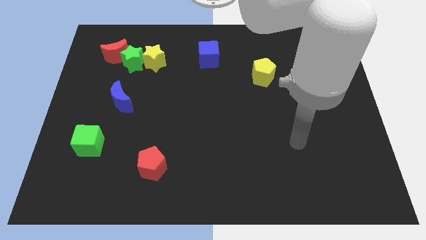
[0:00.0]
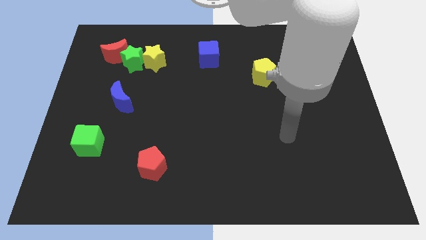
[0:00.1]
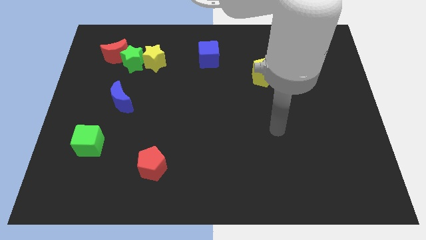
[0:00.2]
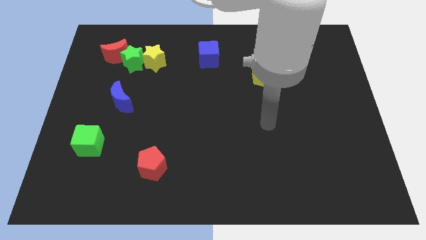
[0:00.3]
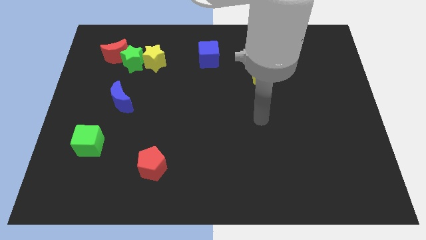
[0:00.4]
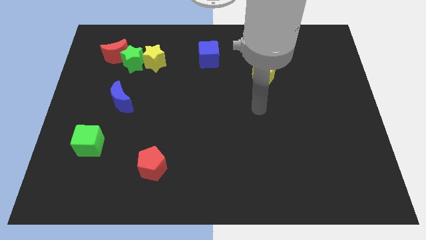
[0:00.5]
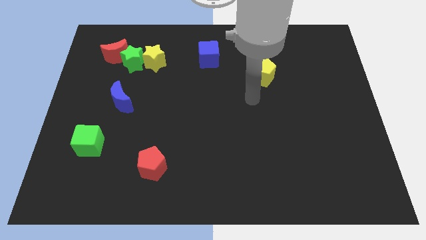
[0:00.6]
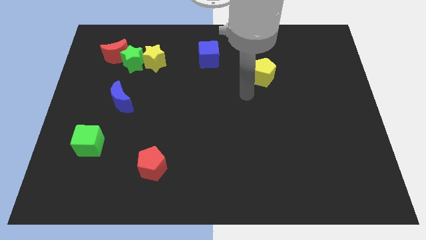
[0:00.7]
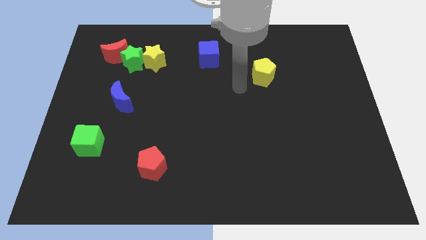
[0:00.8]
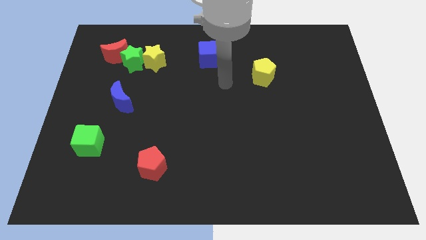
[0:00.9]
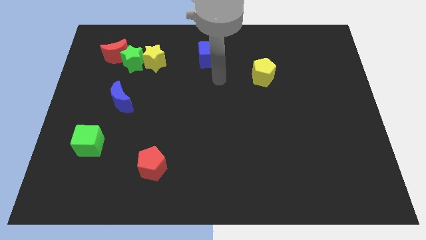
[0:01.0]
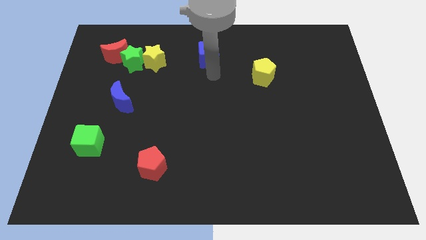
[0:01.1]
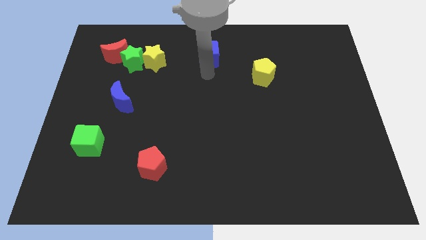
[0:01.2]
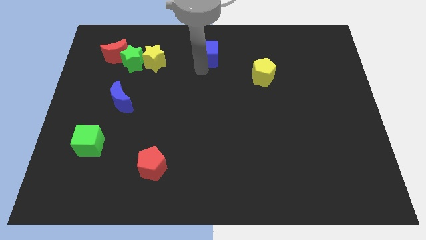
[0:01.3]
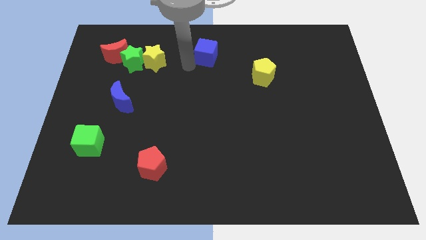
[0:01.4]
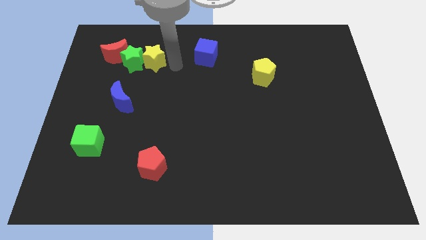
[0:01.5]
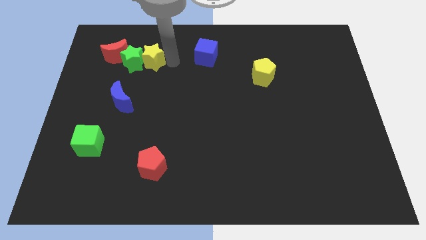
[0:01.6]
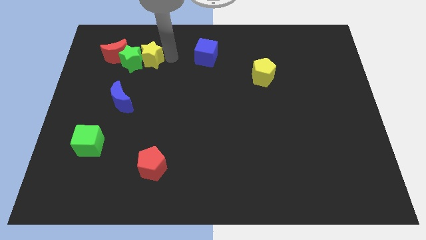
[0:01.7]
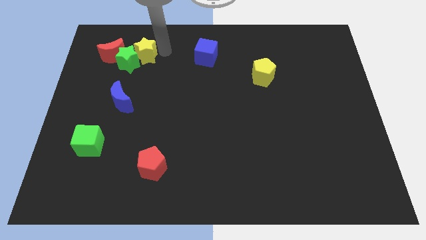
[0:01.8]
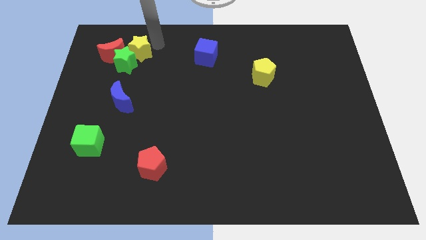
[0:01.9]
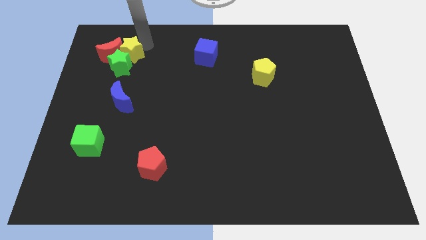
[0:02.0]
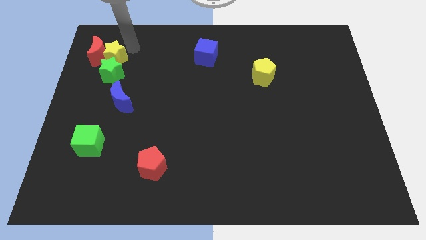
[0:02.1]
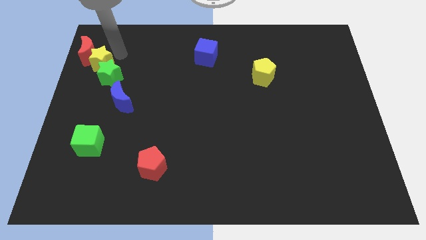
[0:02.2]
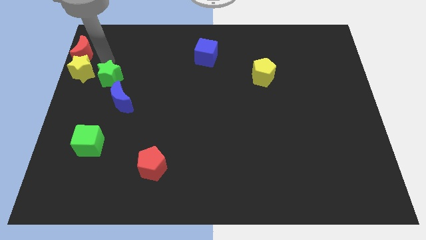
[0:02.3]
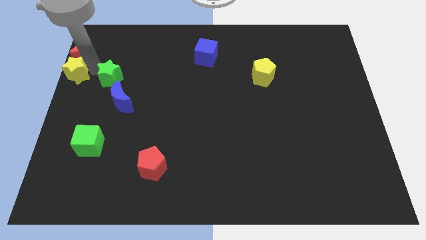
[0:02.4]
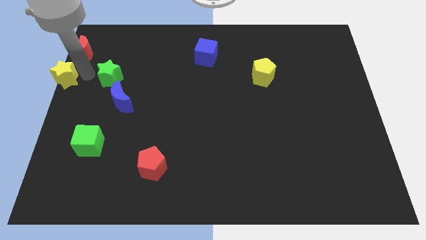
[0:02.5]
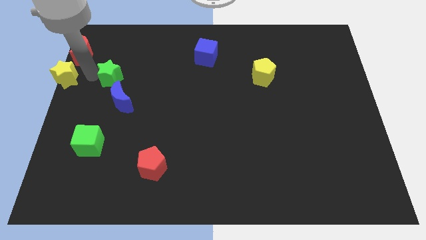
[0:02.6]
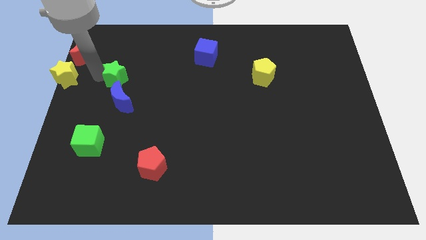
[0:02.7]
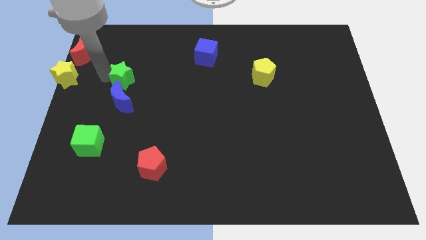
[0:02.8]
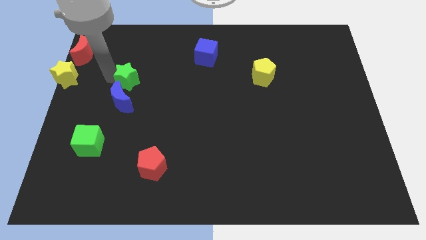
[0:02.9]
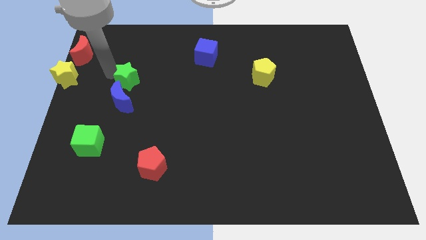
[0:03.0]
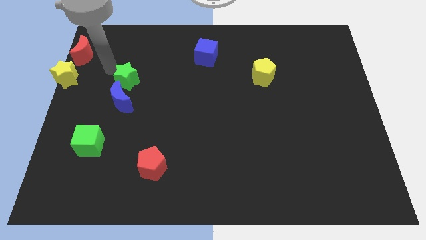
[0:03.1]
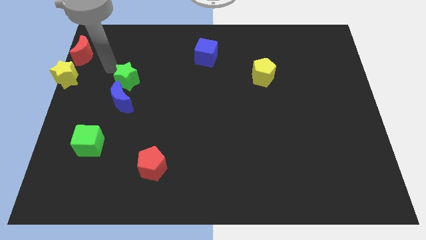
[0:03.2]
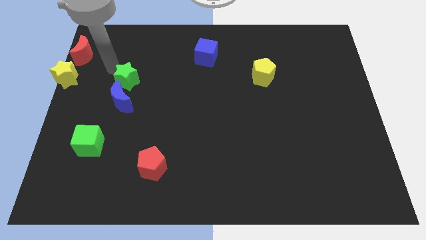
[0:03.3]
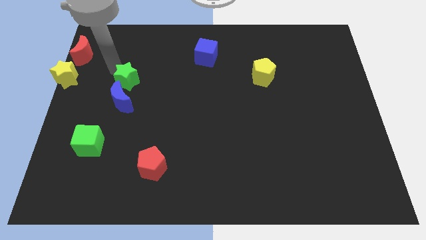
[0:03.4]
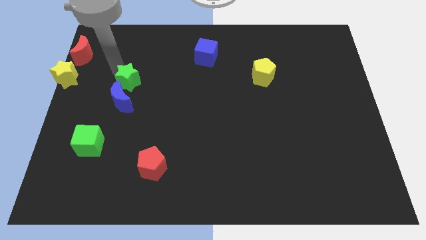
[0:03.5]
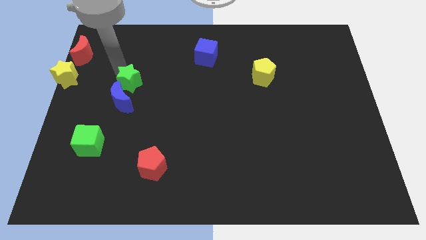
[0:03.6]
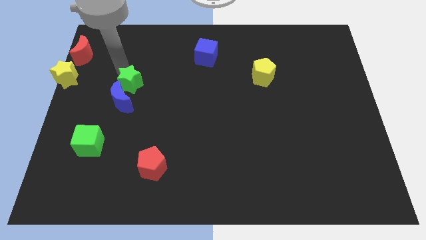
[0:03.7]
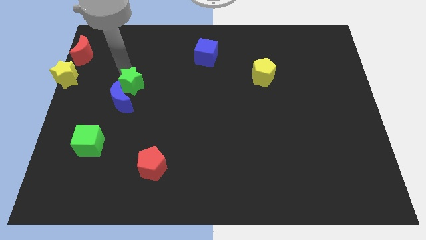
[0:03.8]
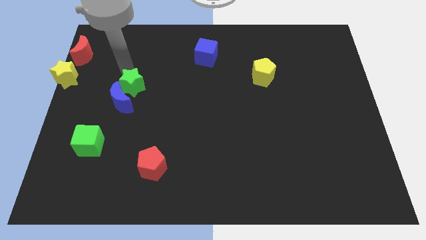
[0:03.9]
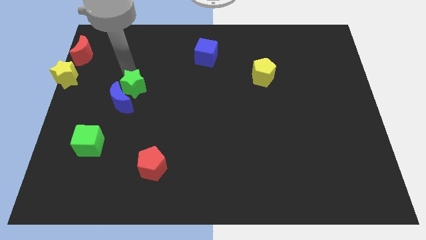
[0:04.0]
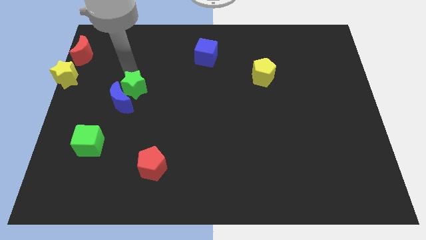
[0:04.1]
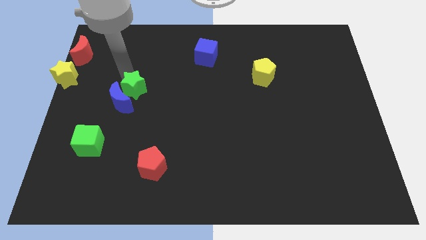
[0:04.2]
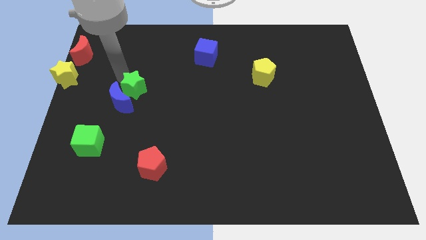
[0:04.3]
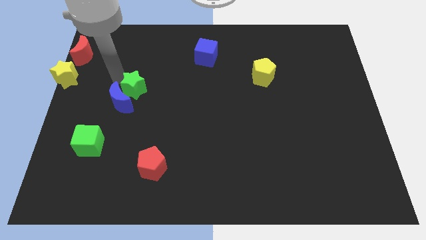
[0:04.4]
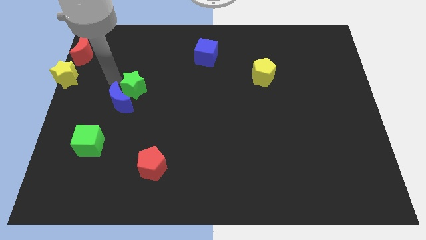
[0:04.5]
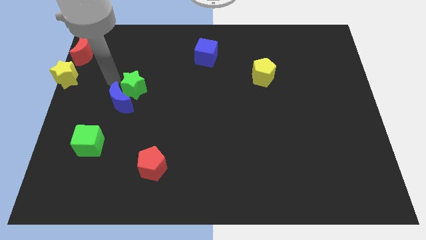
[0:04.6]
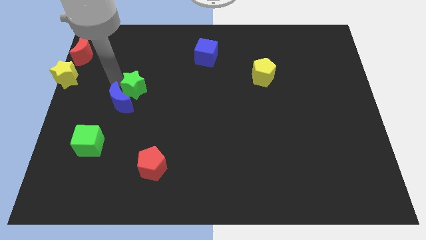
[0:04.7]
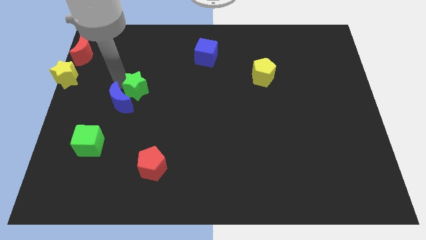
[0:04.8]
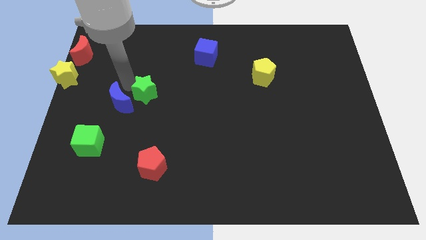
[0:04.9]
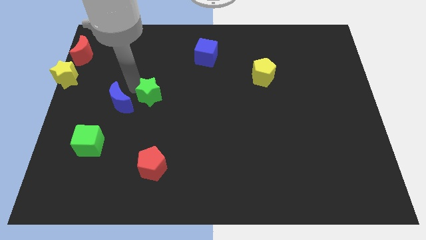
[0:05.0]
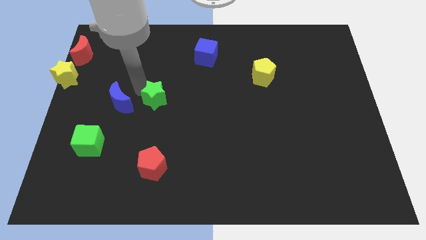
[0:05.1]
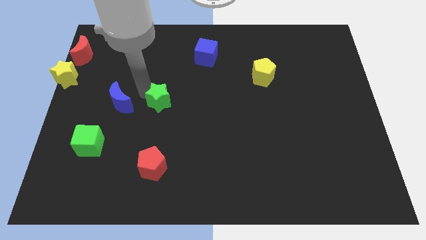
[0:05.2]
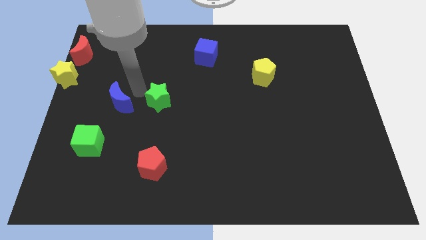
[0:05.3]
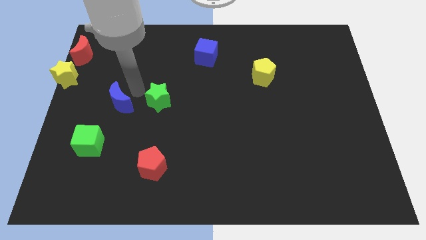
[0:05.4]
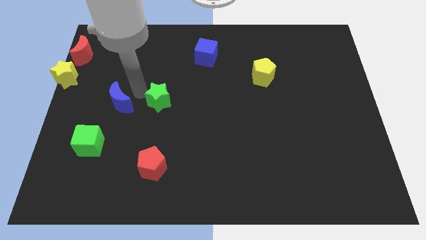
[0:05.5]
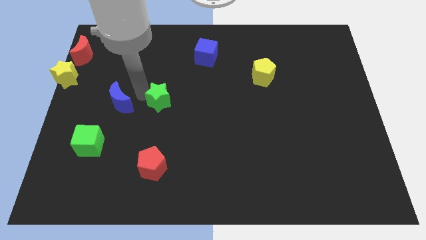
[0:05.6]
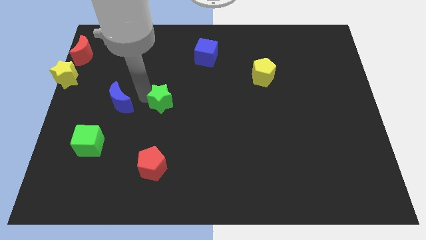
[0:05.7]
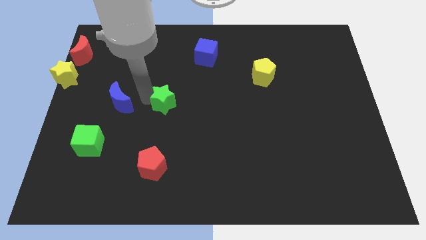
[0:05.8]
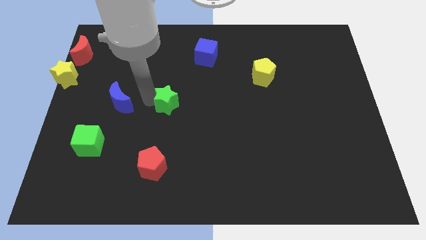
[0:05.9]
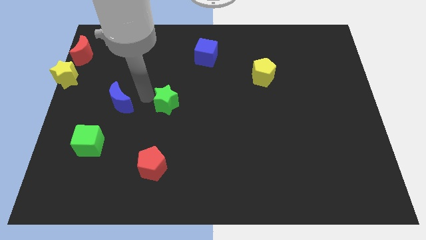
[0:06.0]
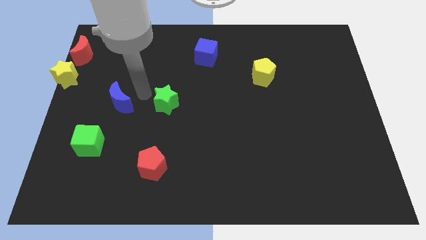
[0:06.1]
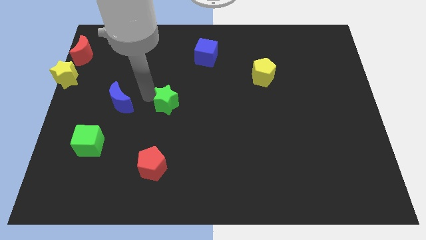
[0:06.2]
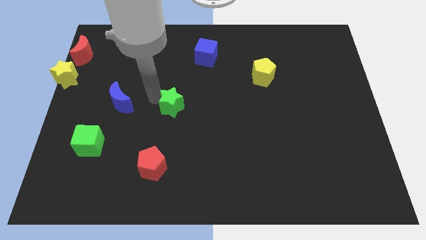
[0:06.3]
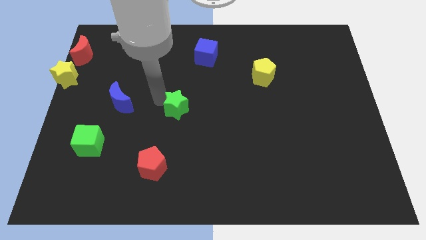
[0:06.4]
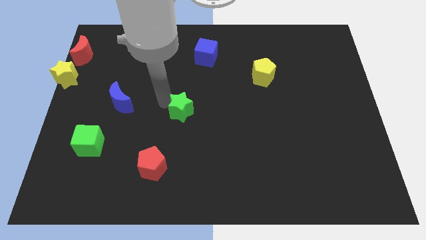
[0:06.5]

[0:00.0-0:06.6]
move the green star down and then right

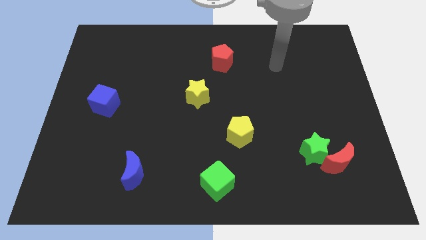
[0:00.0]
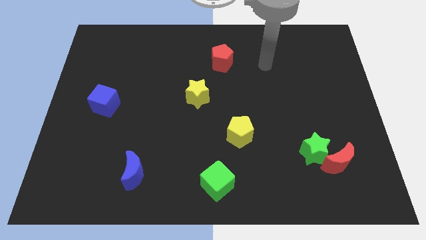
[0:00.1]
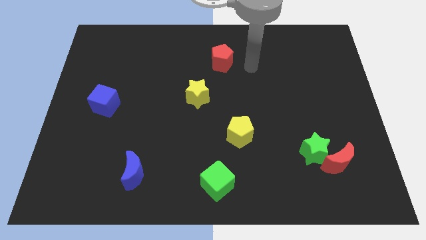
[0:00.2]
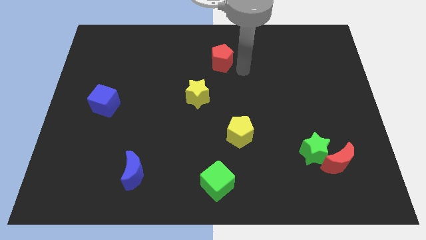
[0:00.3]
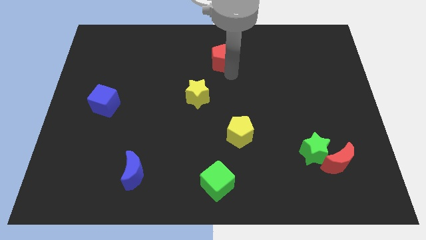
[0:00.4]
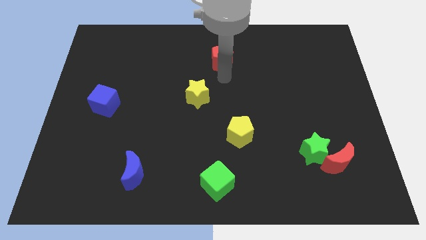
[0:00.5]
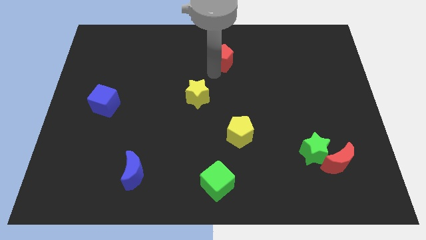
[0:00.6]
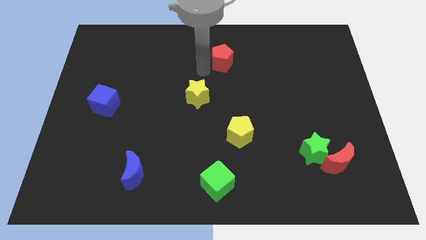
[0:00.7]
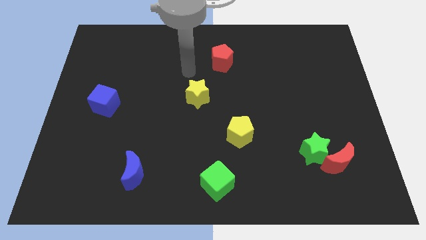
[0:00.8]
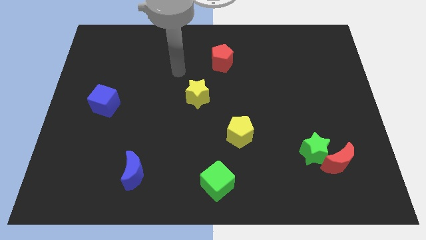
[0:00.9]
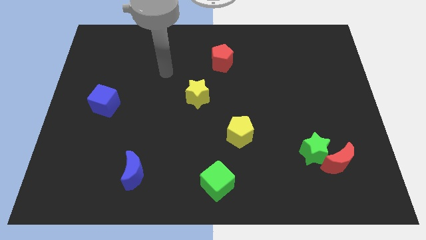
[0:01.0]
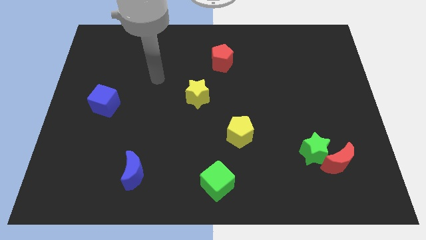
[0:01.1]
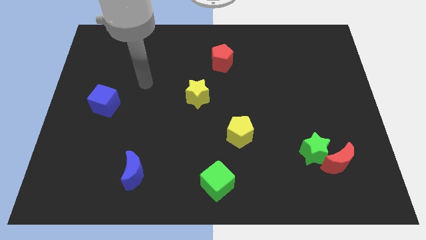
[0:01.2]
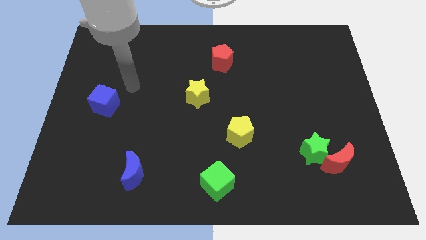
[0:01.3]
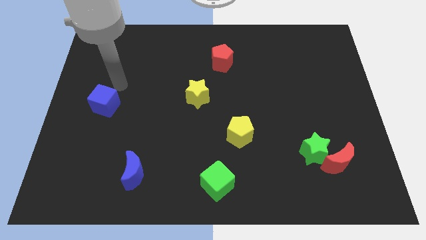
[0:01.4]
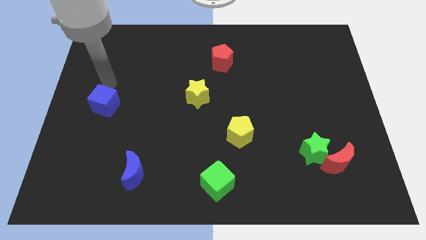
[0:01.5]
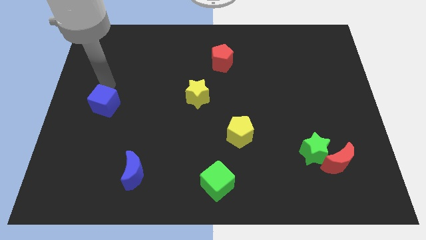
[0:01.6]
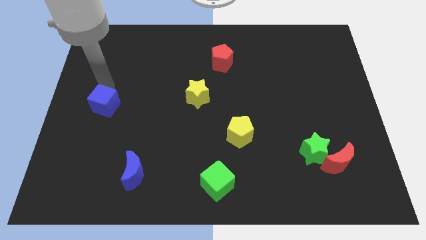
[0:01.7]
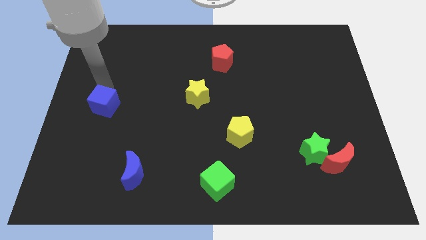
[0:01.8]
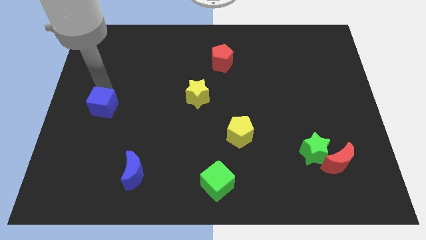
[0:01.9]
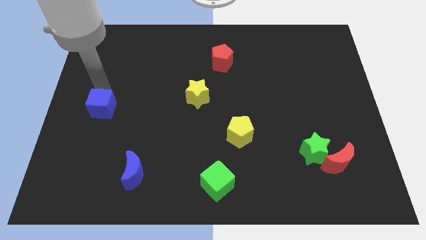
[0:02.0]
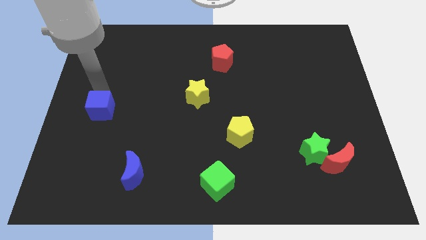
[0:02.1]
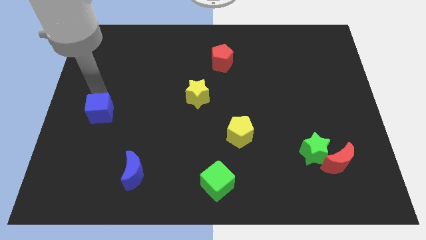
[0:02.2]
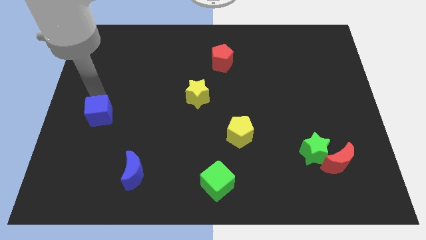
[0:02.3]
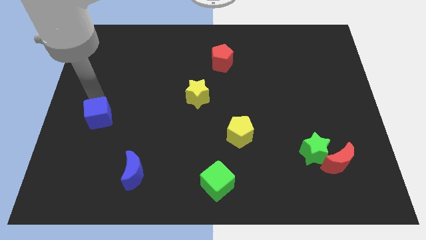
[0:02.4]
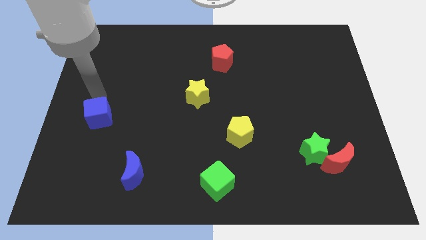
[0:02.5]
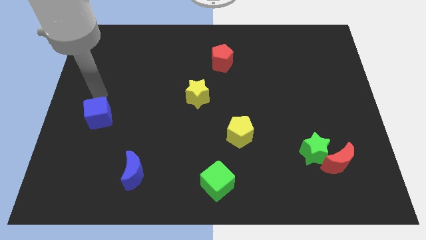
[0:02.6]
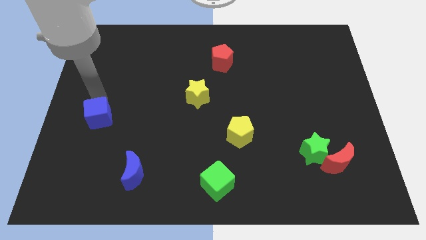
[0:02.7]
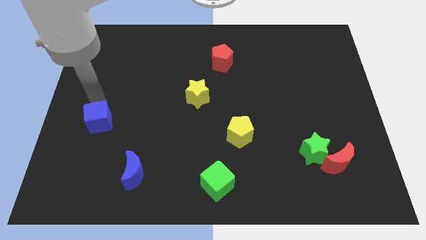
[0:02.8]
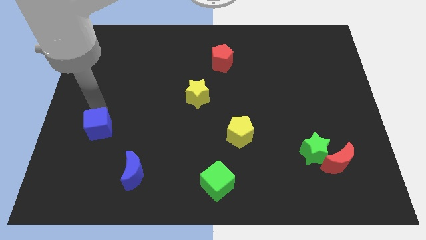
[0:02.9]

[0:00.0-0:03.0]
push the blue cube a little downwards
